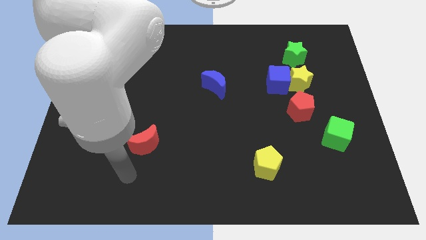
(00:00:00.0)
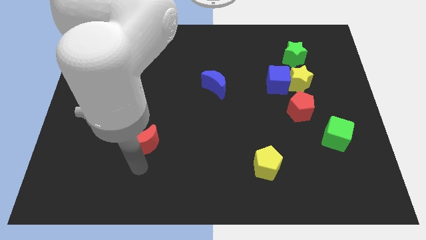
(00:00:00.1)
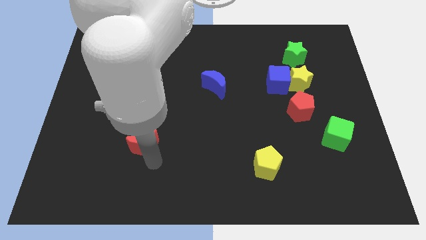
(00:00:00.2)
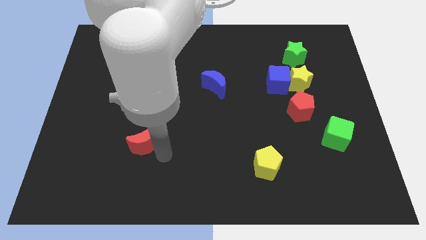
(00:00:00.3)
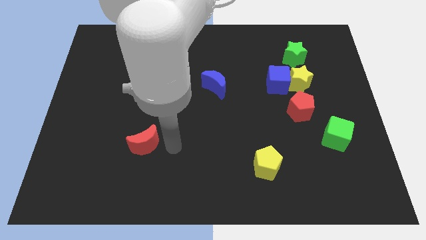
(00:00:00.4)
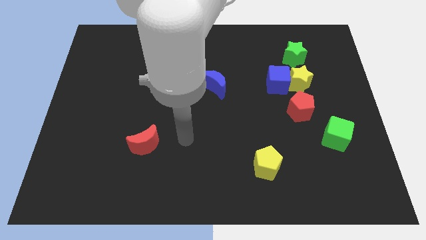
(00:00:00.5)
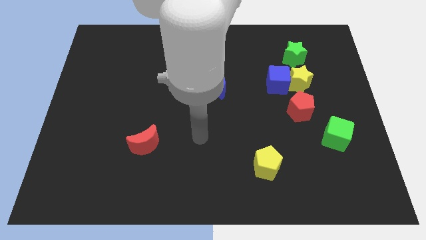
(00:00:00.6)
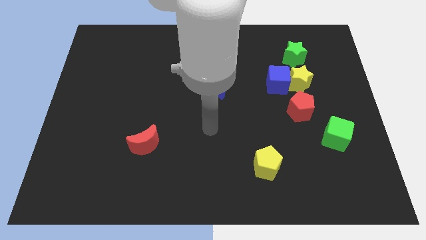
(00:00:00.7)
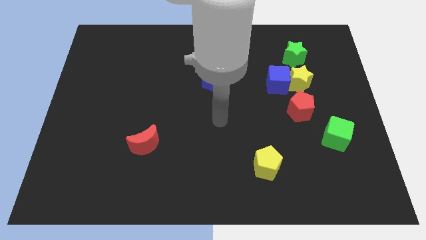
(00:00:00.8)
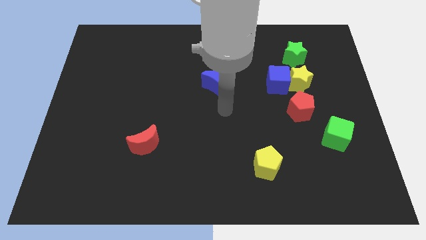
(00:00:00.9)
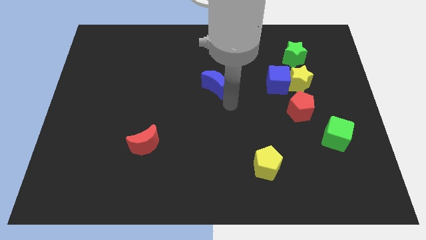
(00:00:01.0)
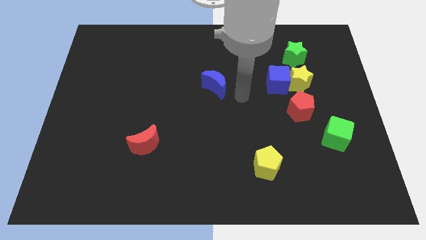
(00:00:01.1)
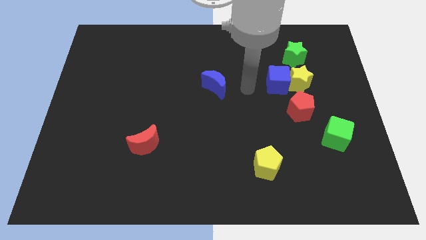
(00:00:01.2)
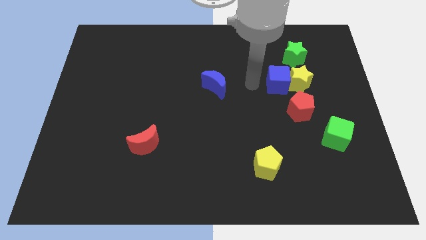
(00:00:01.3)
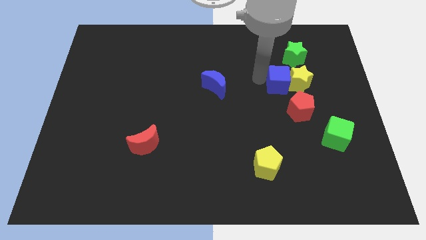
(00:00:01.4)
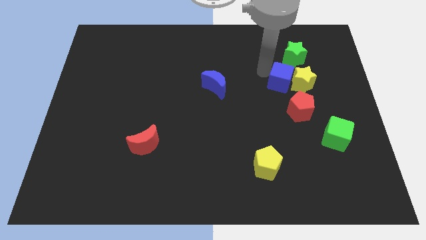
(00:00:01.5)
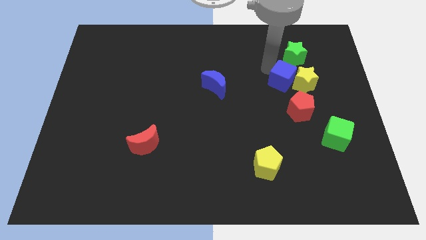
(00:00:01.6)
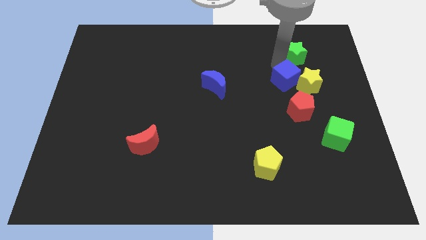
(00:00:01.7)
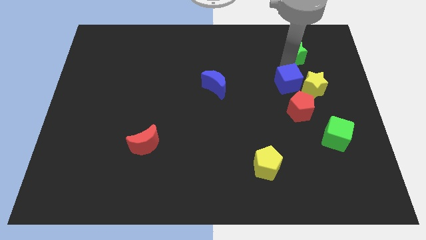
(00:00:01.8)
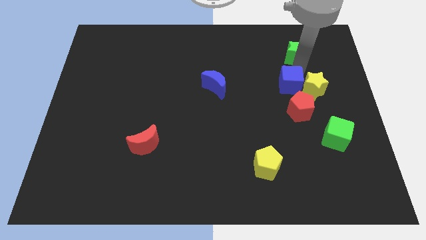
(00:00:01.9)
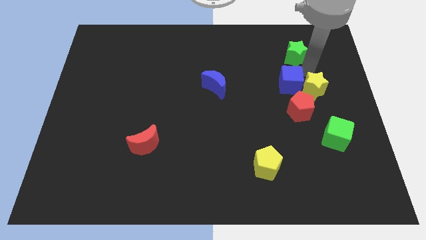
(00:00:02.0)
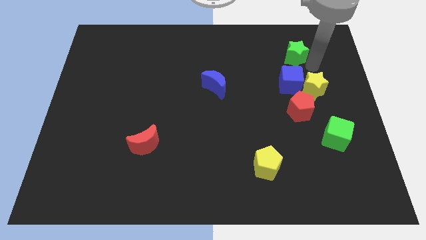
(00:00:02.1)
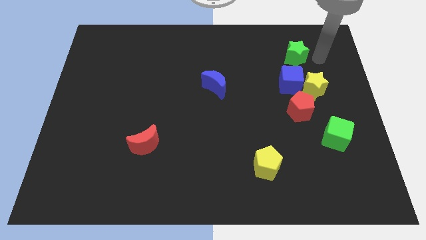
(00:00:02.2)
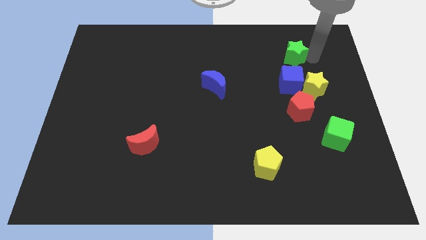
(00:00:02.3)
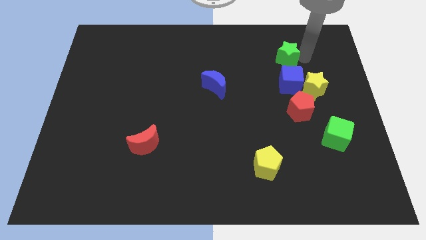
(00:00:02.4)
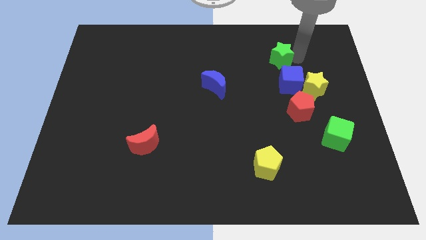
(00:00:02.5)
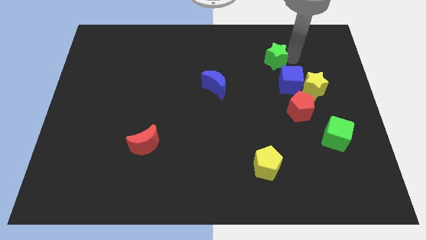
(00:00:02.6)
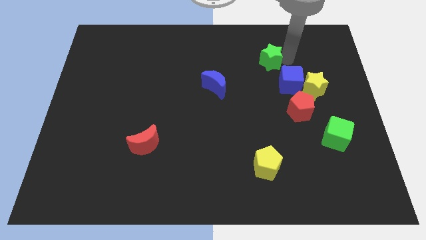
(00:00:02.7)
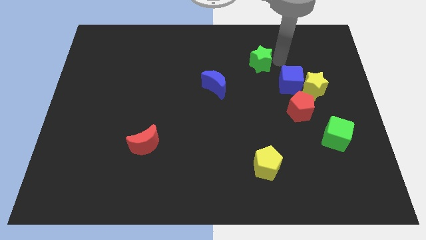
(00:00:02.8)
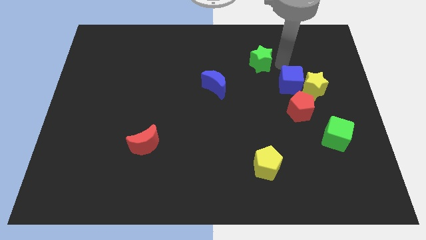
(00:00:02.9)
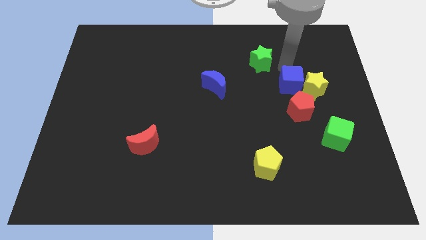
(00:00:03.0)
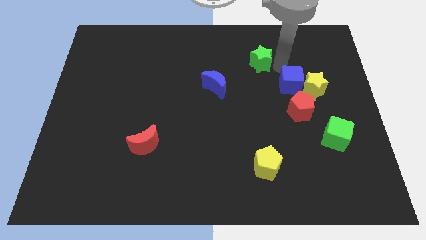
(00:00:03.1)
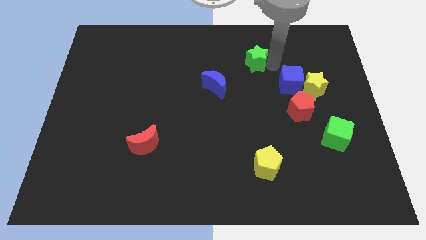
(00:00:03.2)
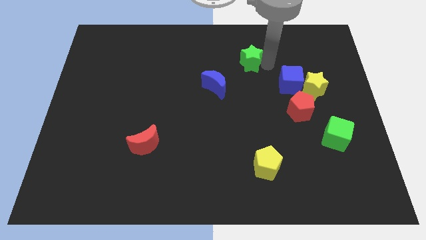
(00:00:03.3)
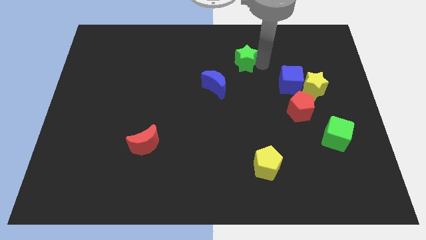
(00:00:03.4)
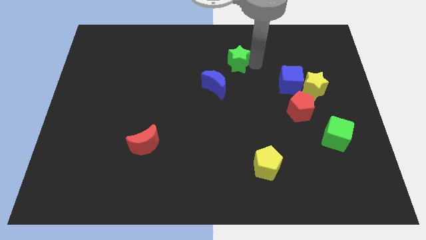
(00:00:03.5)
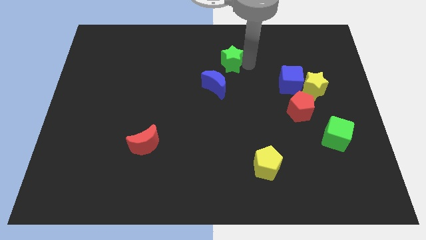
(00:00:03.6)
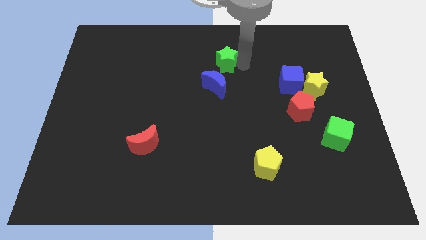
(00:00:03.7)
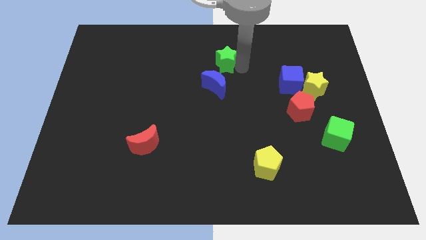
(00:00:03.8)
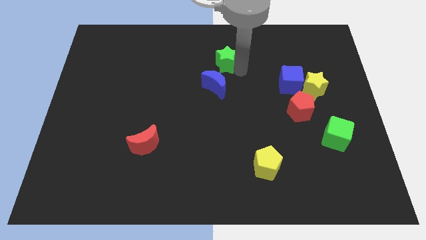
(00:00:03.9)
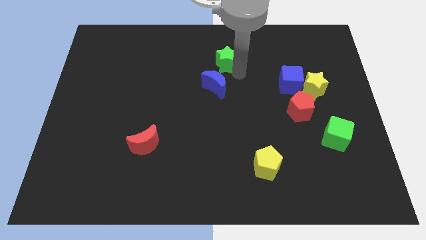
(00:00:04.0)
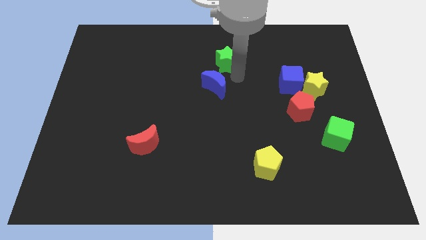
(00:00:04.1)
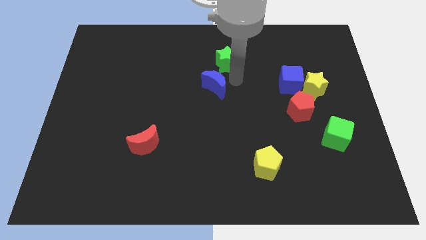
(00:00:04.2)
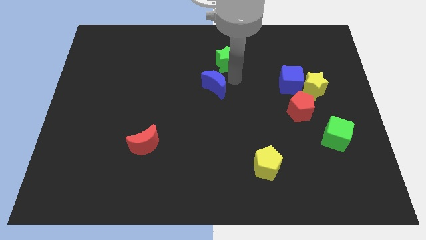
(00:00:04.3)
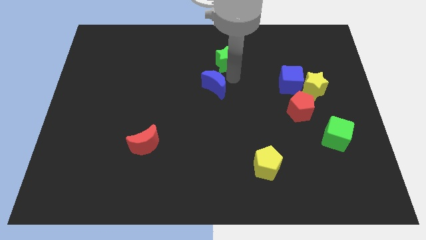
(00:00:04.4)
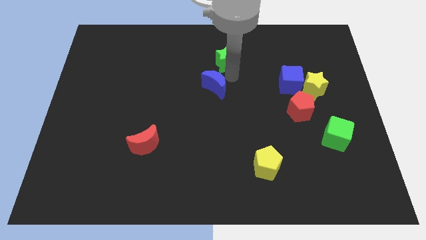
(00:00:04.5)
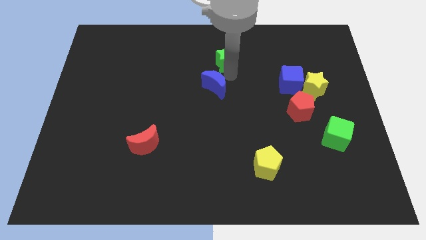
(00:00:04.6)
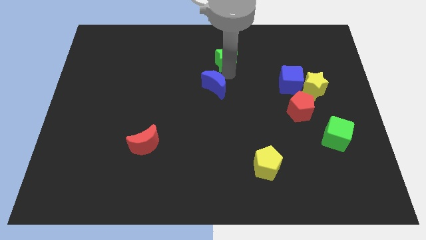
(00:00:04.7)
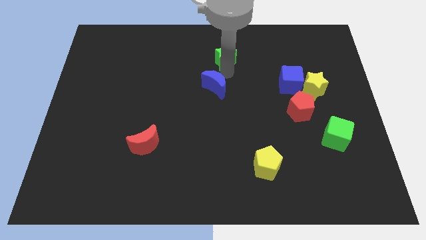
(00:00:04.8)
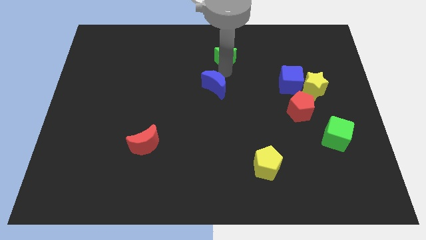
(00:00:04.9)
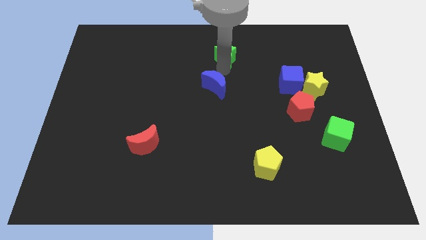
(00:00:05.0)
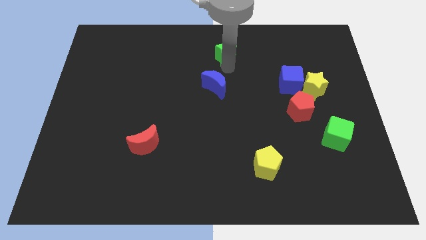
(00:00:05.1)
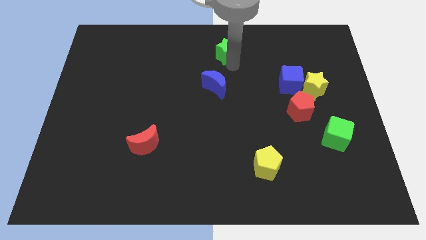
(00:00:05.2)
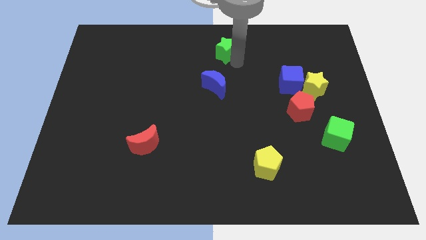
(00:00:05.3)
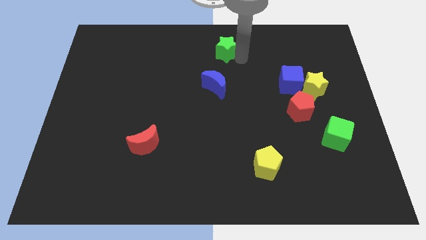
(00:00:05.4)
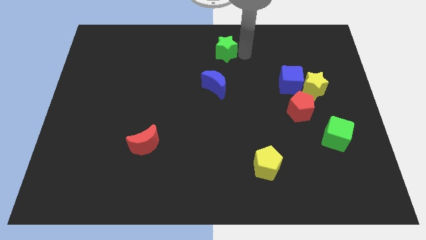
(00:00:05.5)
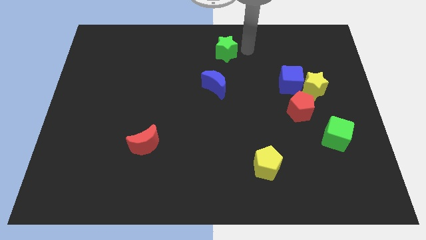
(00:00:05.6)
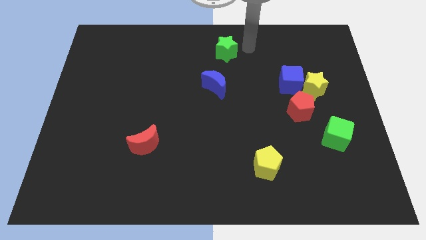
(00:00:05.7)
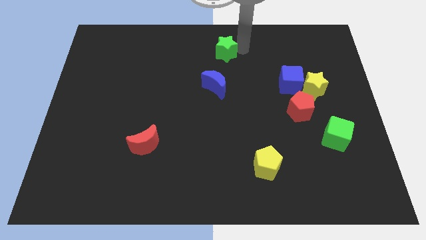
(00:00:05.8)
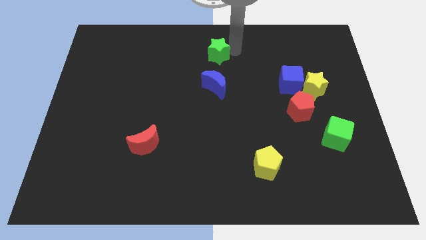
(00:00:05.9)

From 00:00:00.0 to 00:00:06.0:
move the green star to the left

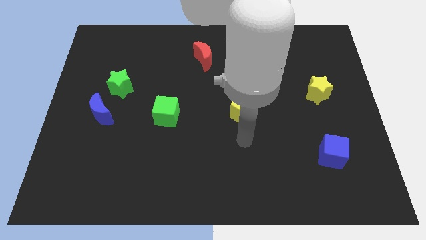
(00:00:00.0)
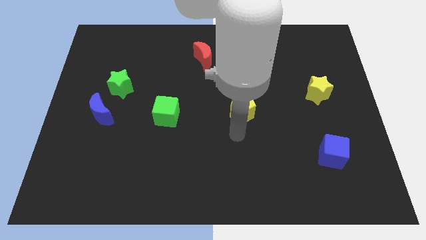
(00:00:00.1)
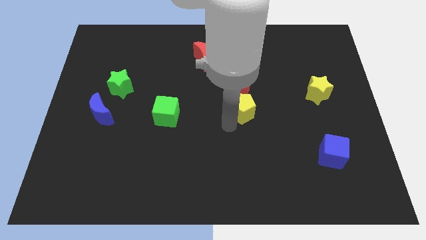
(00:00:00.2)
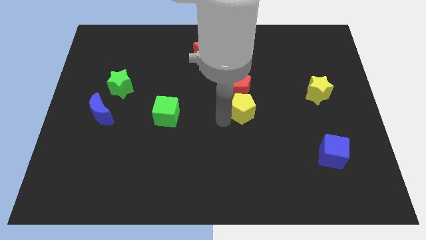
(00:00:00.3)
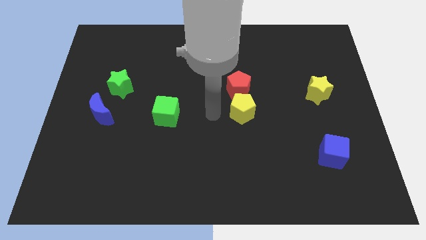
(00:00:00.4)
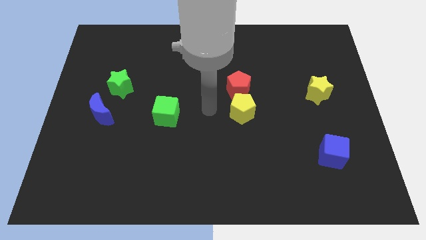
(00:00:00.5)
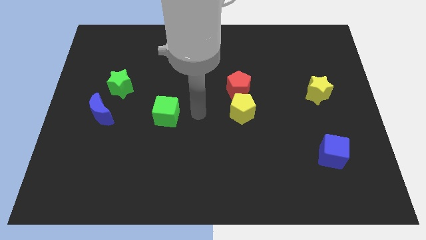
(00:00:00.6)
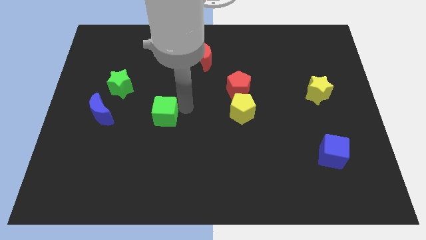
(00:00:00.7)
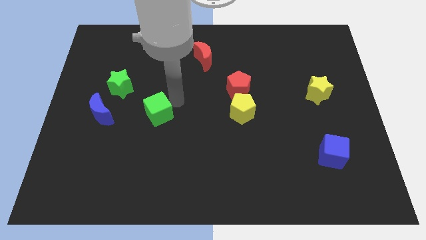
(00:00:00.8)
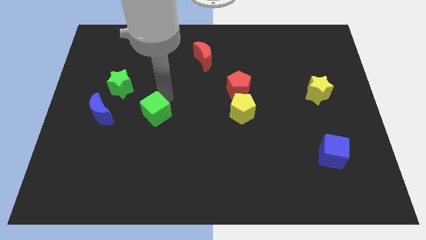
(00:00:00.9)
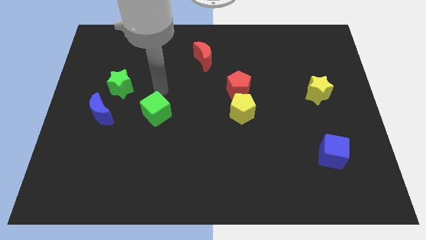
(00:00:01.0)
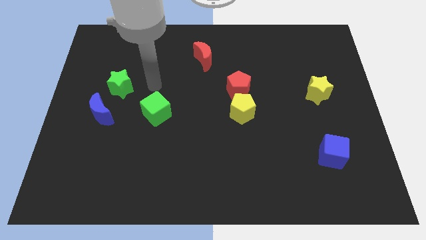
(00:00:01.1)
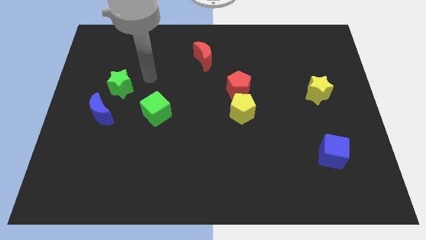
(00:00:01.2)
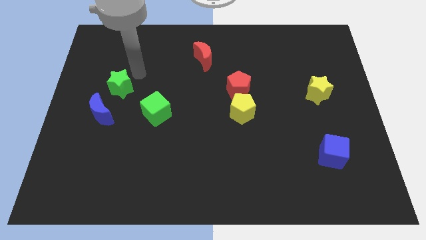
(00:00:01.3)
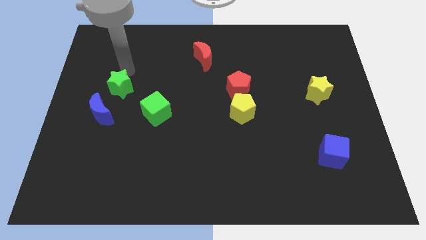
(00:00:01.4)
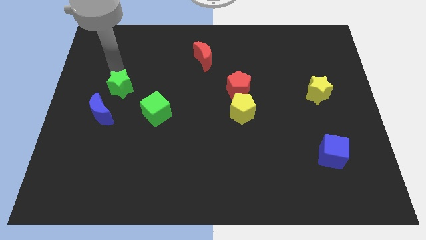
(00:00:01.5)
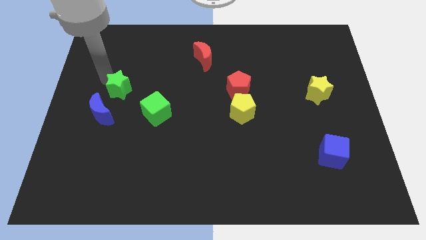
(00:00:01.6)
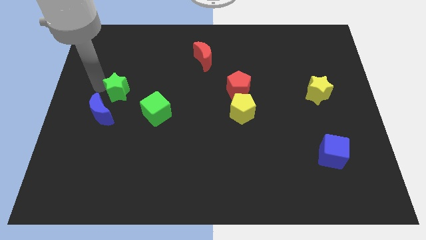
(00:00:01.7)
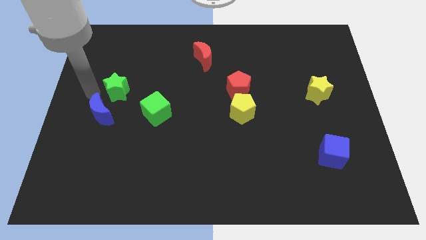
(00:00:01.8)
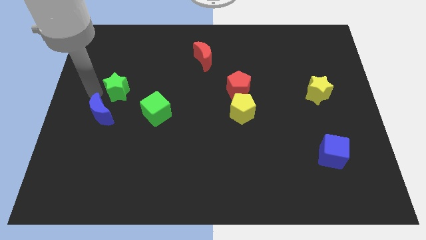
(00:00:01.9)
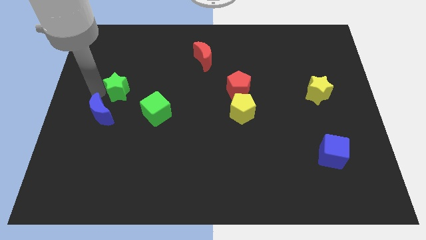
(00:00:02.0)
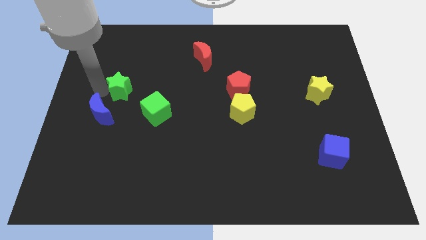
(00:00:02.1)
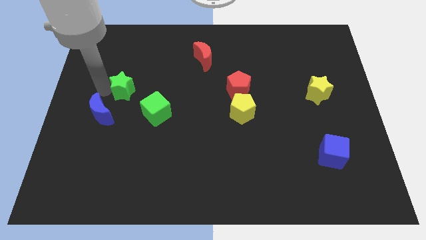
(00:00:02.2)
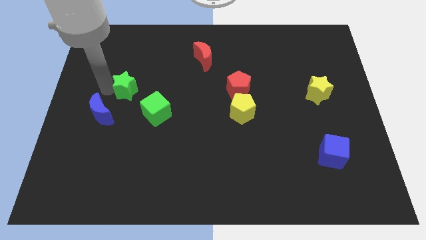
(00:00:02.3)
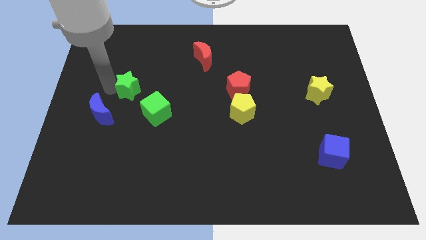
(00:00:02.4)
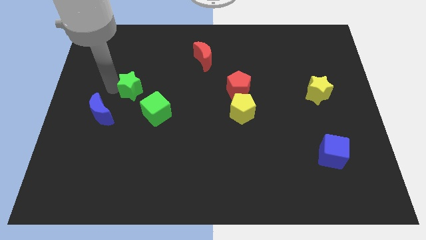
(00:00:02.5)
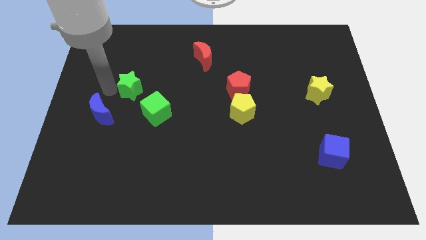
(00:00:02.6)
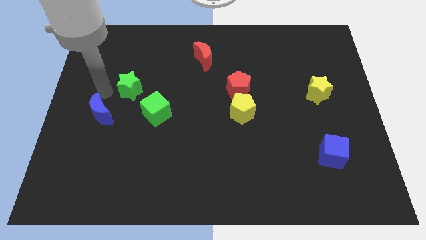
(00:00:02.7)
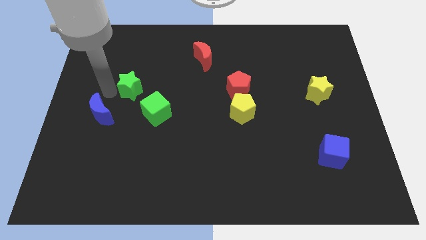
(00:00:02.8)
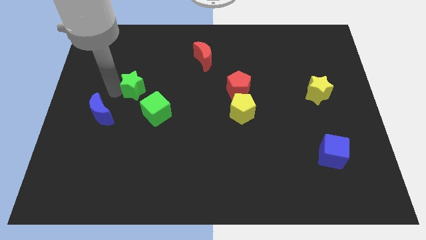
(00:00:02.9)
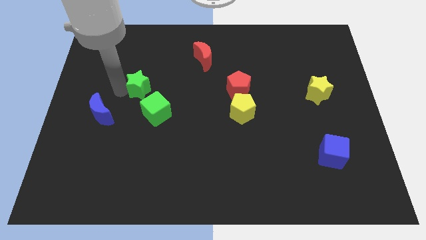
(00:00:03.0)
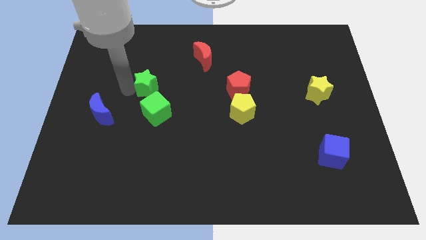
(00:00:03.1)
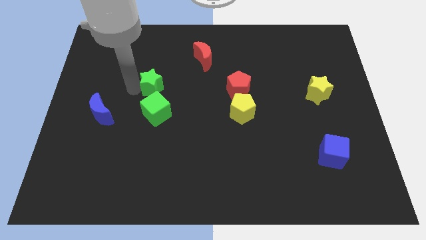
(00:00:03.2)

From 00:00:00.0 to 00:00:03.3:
slide the green star slightly right
